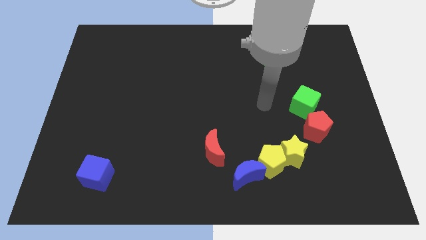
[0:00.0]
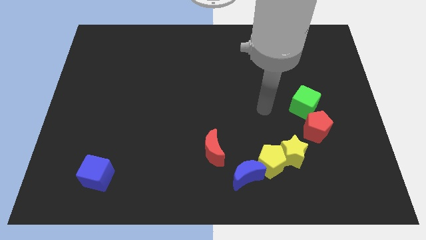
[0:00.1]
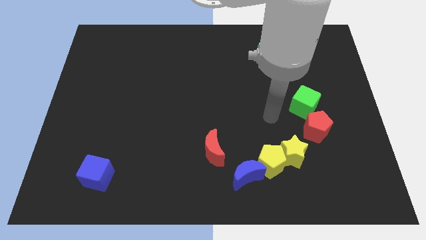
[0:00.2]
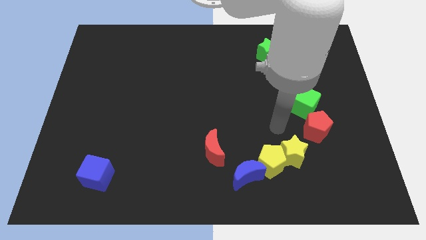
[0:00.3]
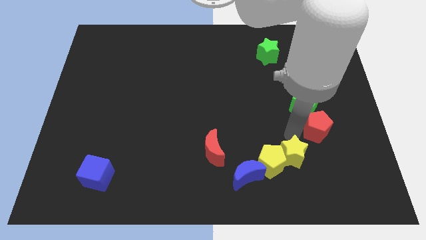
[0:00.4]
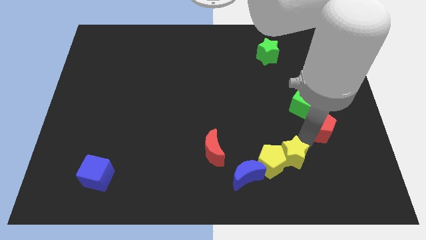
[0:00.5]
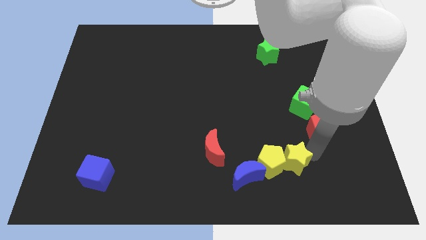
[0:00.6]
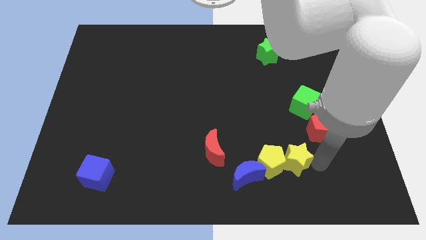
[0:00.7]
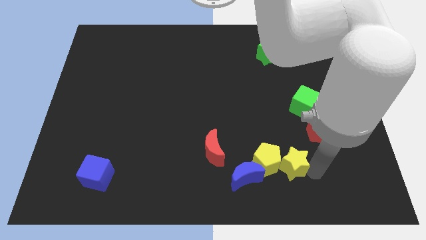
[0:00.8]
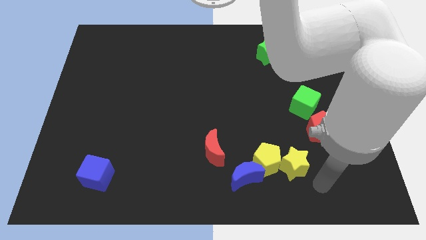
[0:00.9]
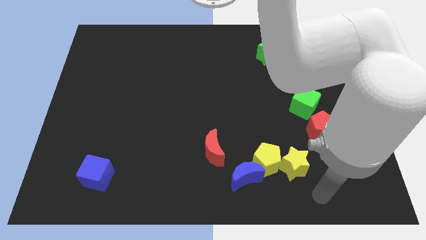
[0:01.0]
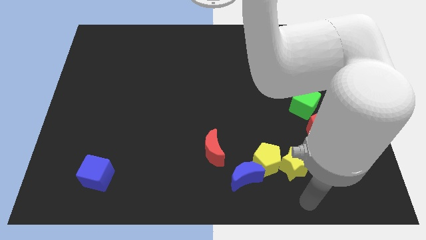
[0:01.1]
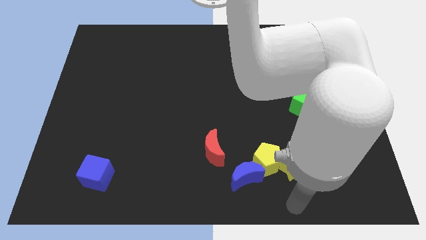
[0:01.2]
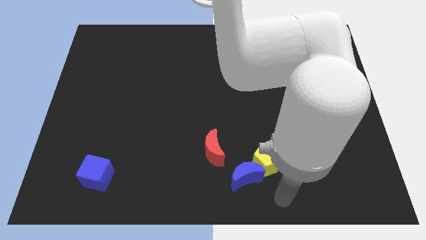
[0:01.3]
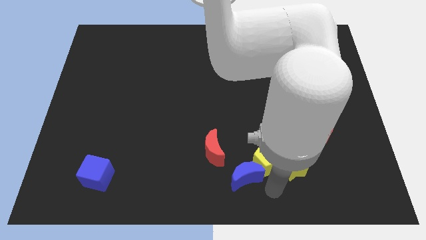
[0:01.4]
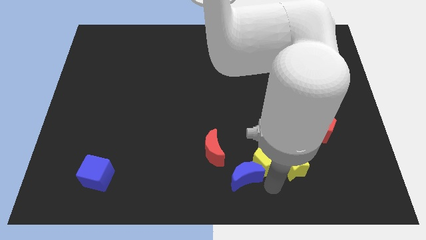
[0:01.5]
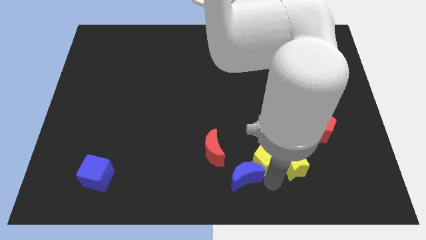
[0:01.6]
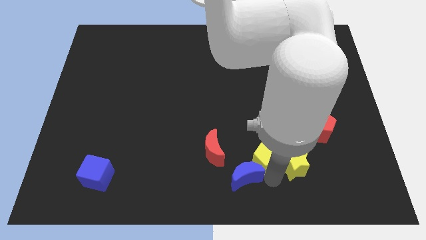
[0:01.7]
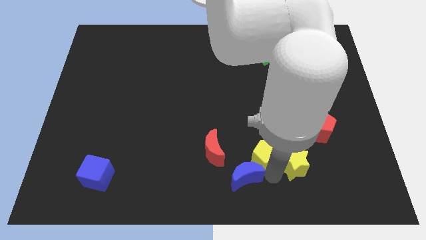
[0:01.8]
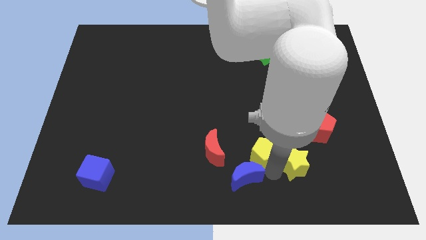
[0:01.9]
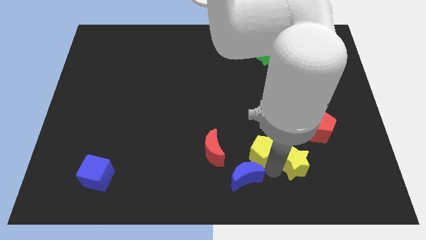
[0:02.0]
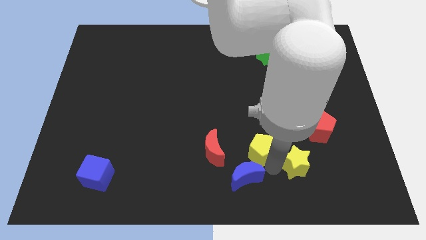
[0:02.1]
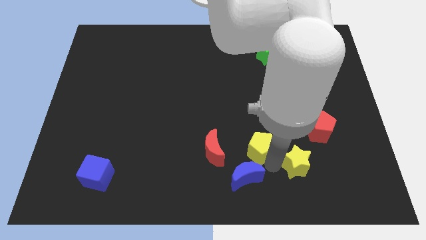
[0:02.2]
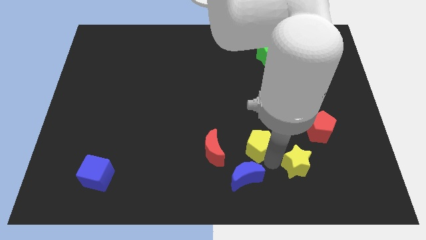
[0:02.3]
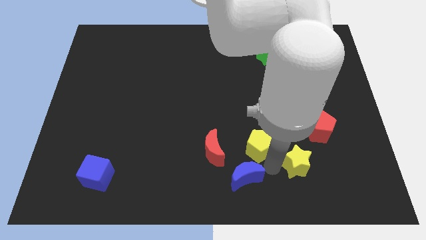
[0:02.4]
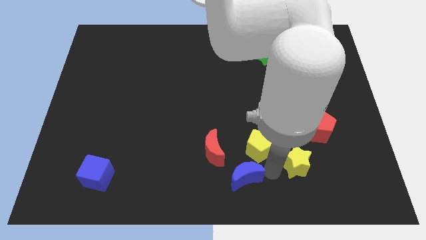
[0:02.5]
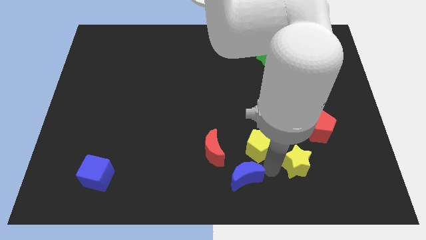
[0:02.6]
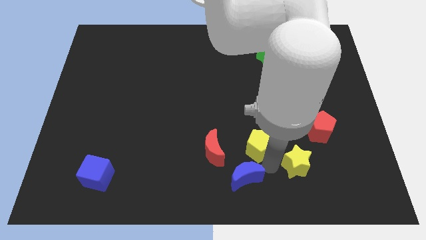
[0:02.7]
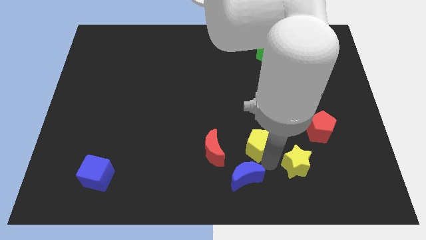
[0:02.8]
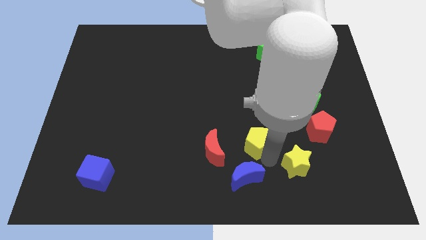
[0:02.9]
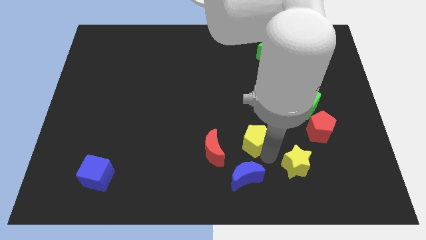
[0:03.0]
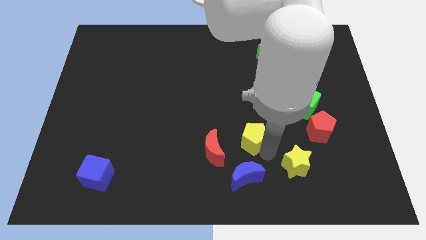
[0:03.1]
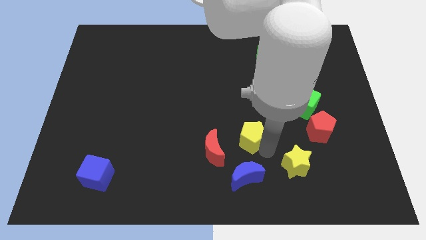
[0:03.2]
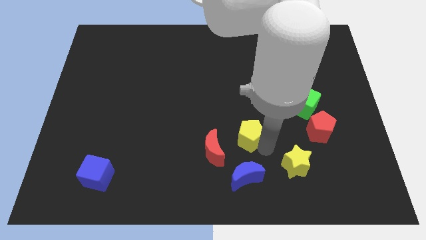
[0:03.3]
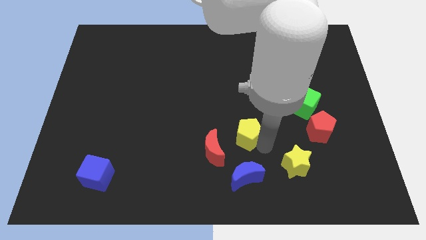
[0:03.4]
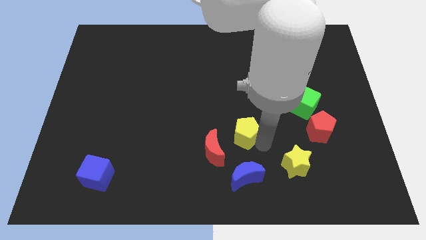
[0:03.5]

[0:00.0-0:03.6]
pull the yellow pentagon apart from the yellow star and blue moon

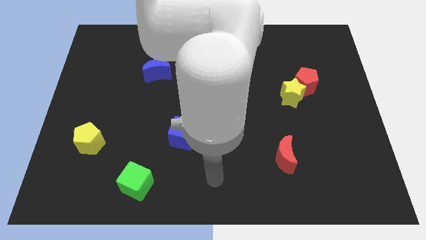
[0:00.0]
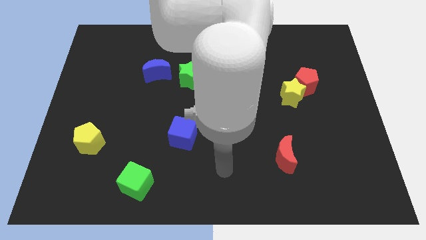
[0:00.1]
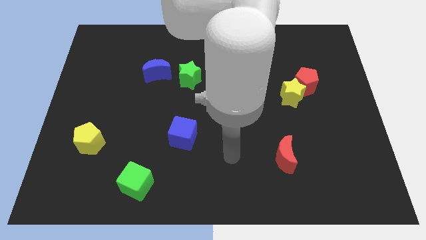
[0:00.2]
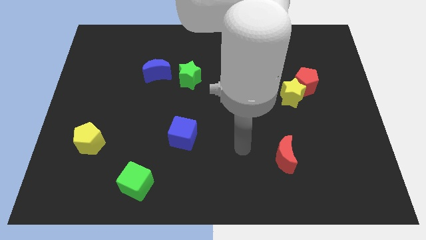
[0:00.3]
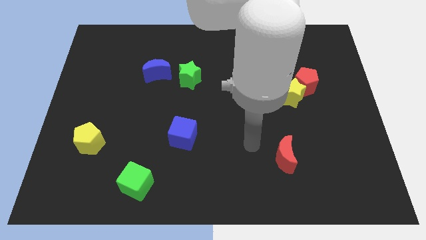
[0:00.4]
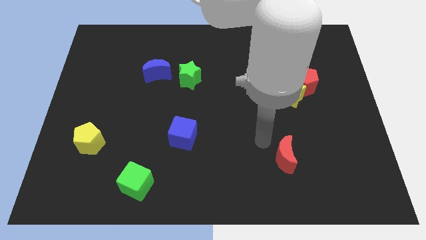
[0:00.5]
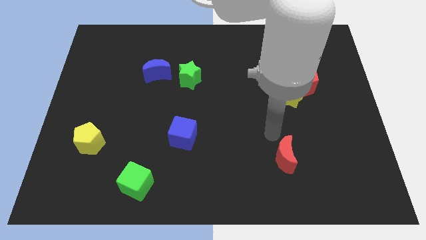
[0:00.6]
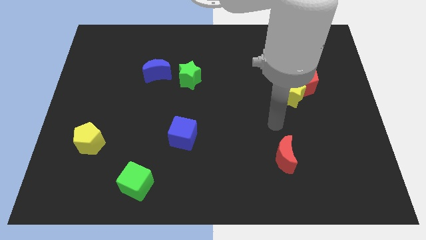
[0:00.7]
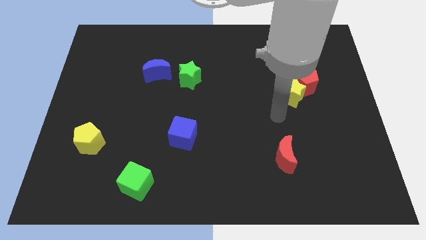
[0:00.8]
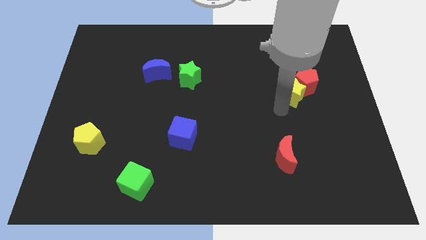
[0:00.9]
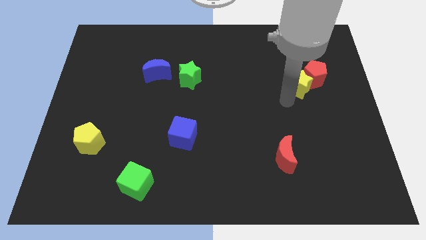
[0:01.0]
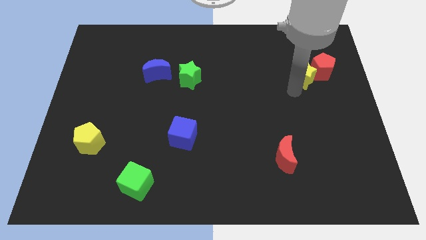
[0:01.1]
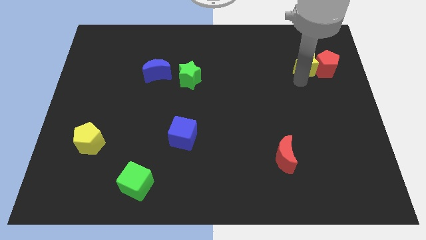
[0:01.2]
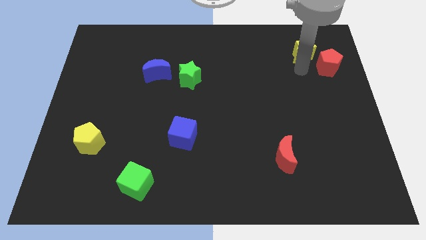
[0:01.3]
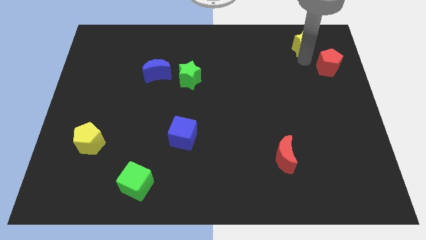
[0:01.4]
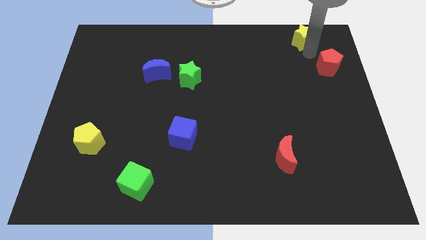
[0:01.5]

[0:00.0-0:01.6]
separate the red pentagon from the yellow star

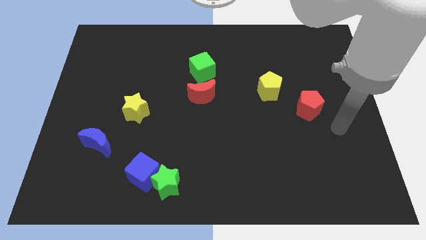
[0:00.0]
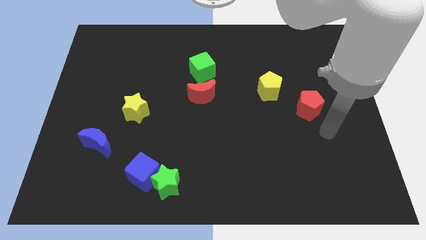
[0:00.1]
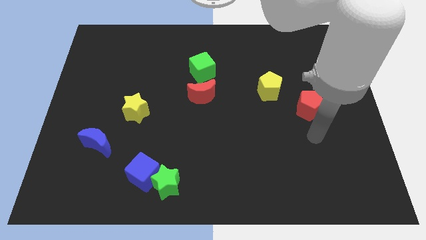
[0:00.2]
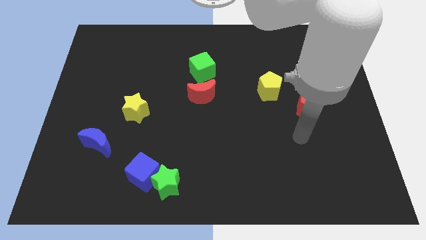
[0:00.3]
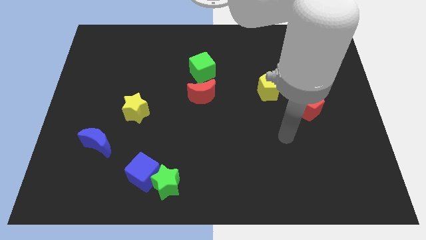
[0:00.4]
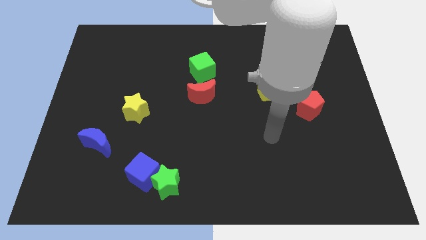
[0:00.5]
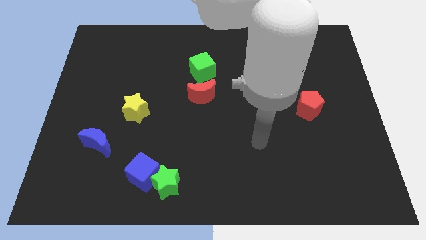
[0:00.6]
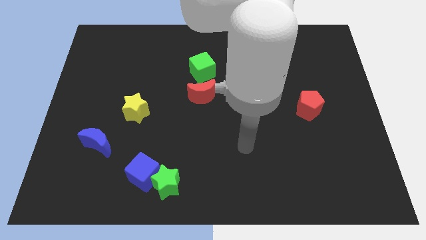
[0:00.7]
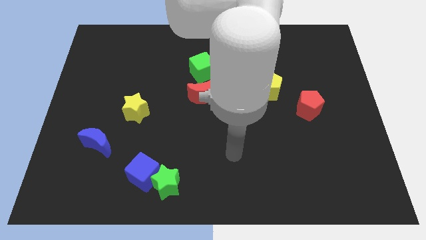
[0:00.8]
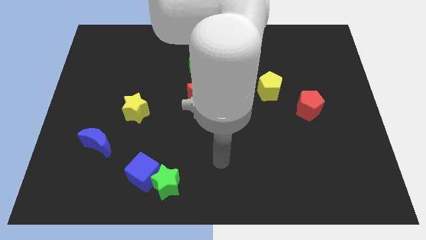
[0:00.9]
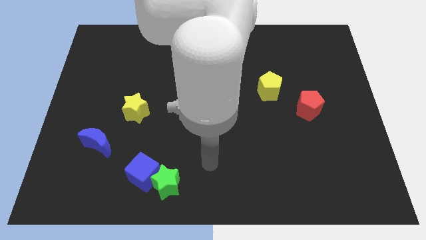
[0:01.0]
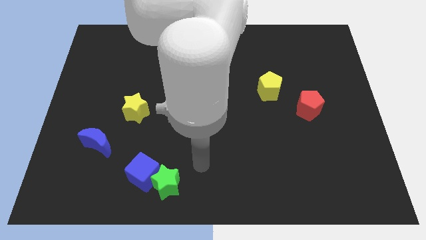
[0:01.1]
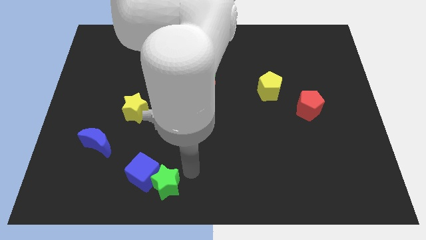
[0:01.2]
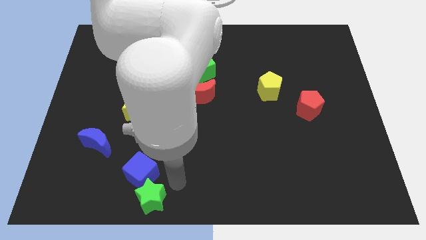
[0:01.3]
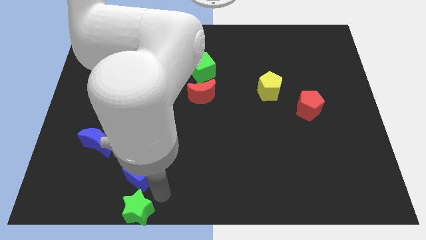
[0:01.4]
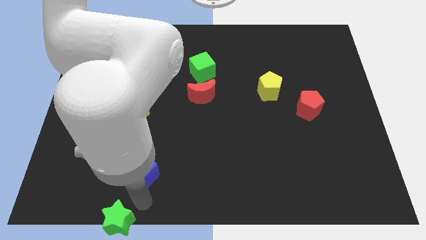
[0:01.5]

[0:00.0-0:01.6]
move the blue cube away from the green star

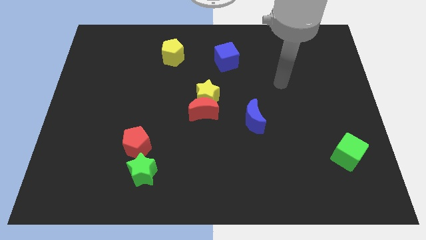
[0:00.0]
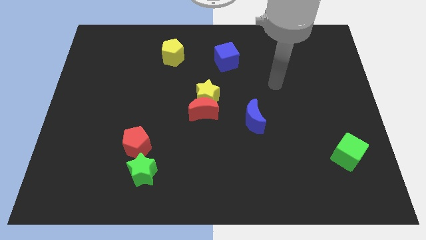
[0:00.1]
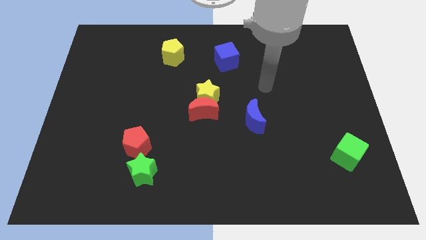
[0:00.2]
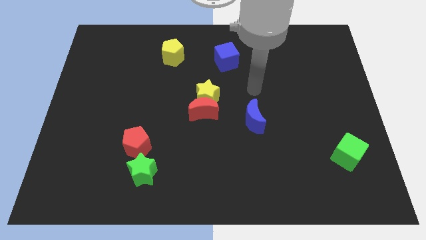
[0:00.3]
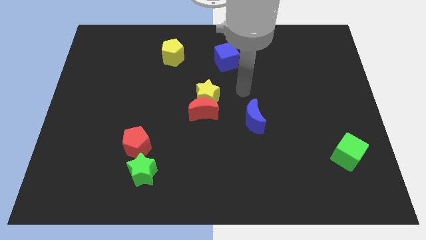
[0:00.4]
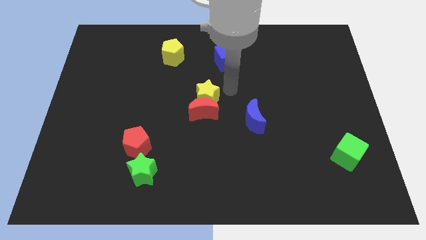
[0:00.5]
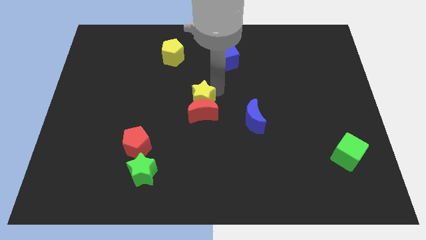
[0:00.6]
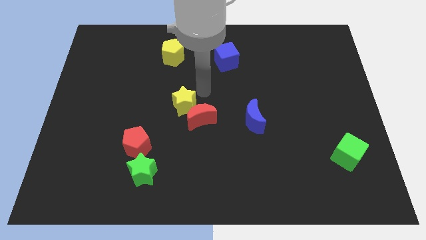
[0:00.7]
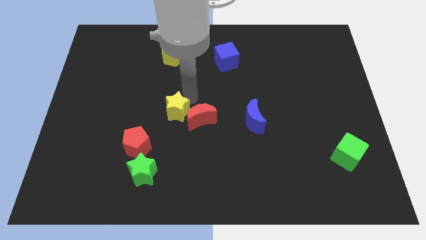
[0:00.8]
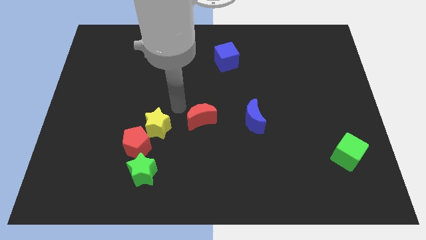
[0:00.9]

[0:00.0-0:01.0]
separate the red moon from the yellow star

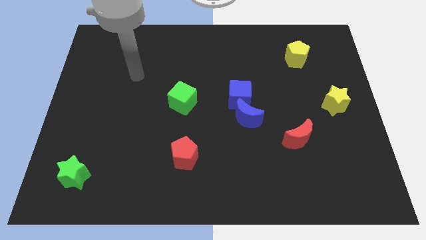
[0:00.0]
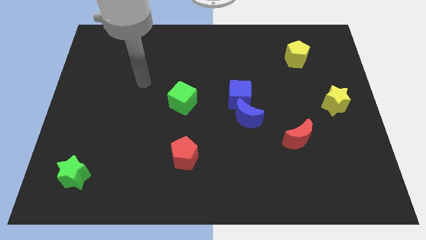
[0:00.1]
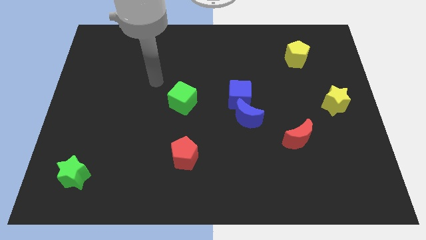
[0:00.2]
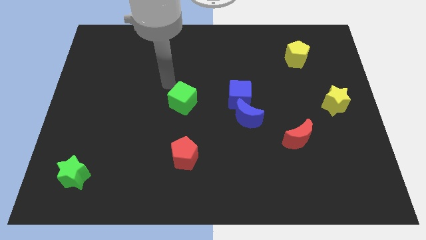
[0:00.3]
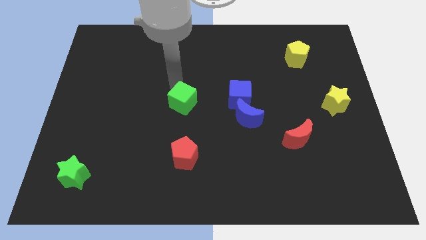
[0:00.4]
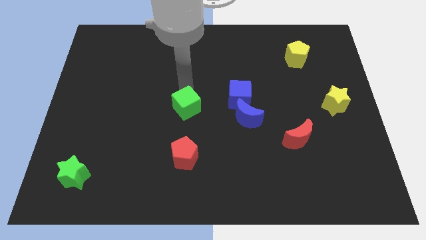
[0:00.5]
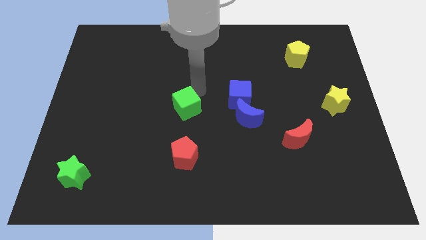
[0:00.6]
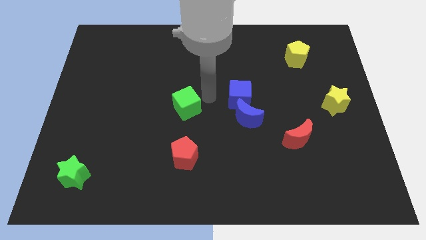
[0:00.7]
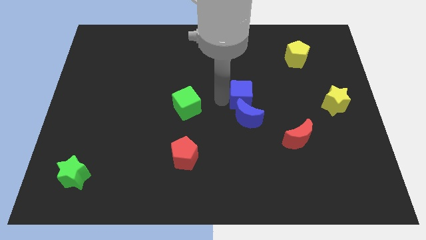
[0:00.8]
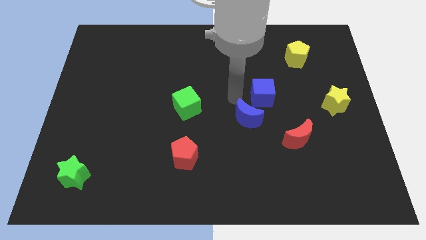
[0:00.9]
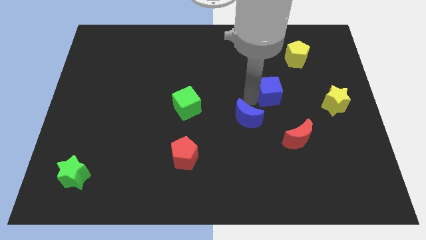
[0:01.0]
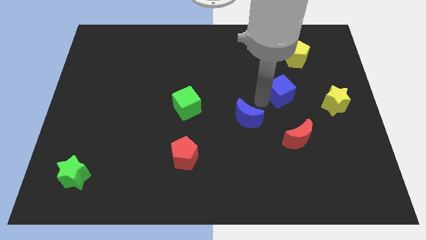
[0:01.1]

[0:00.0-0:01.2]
separate the blue moon from the blue cube

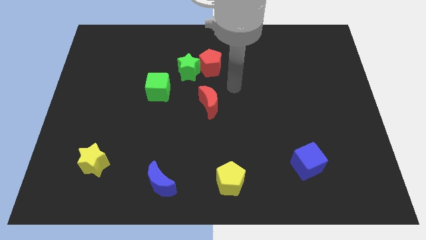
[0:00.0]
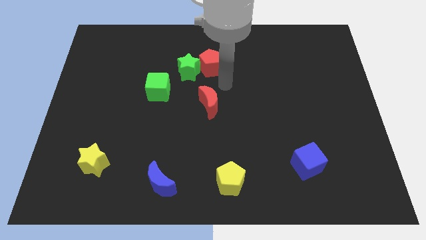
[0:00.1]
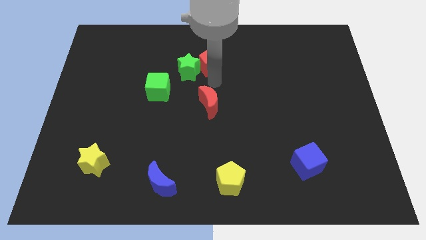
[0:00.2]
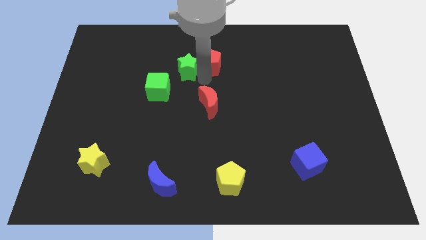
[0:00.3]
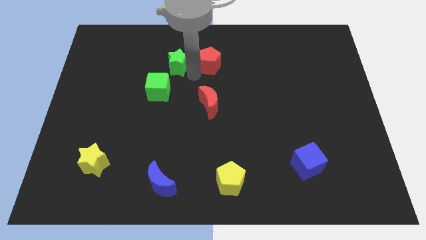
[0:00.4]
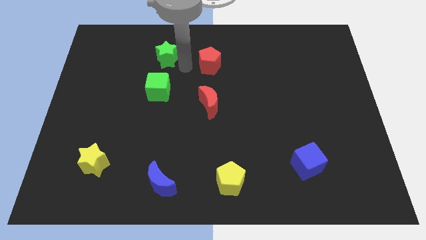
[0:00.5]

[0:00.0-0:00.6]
pull the red pentagon apart from the green star
